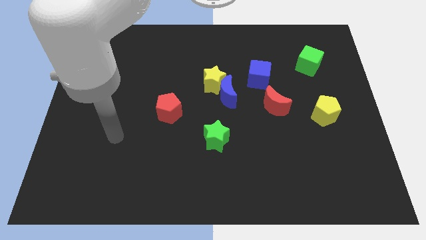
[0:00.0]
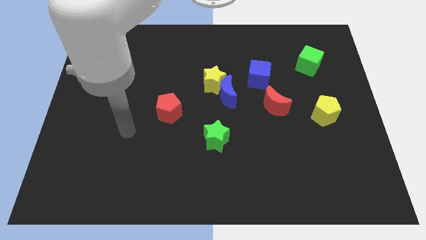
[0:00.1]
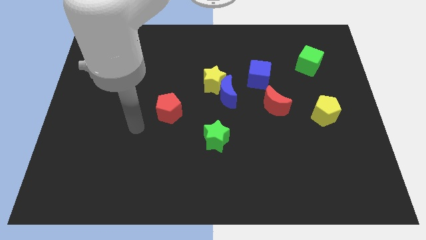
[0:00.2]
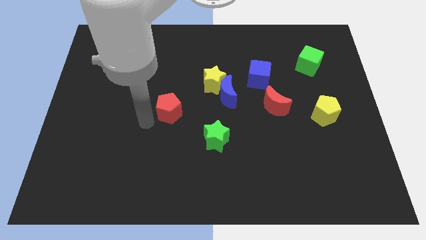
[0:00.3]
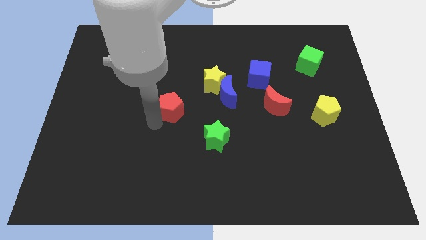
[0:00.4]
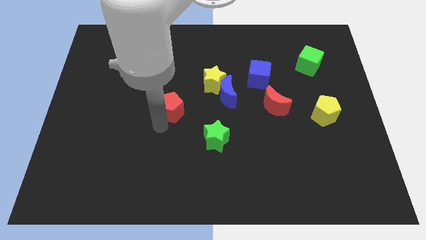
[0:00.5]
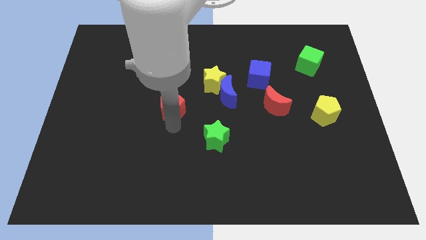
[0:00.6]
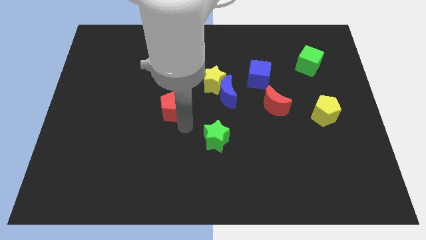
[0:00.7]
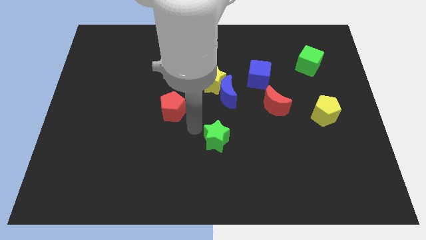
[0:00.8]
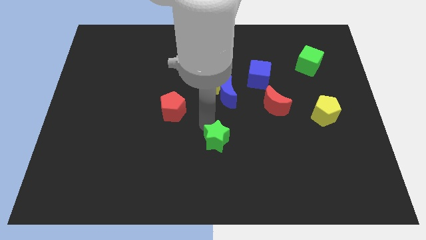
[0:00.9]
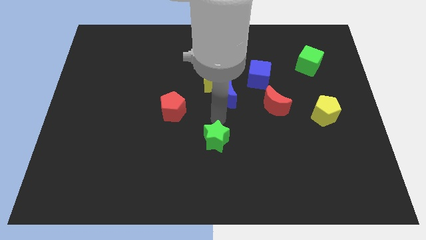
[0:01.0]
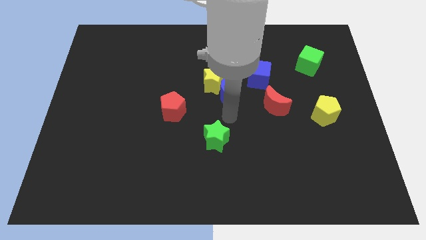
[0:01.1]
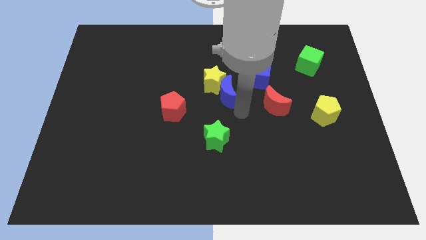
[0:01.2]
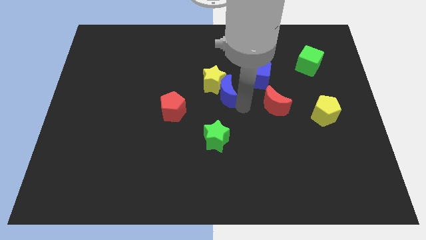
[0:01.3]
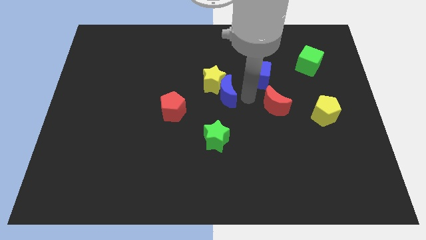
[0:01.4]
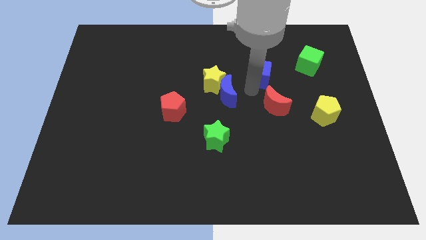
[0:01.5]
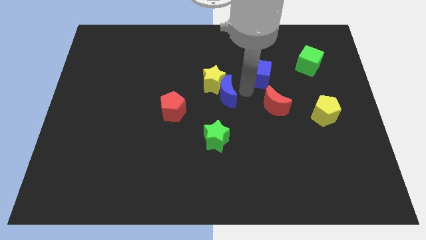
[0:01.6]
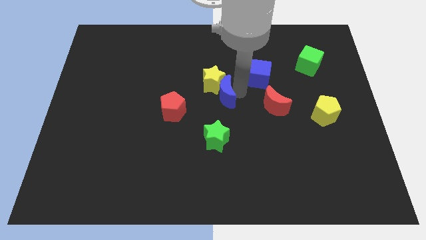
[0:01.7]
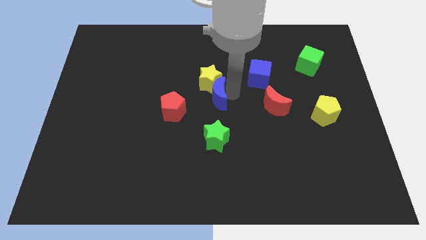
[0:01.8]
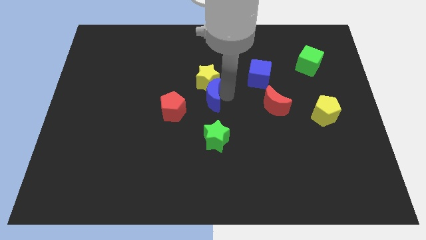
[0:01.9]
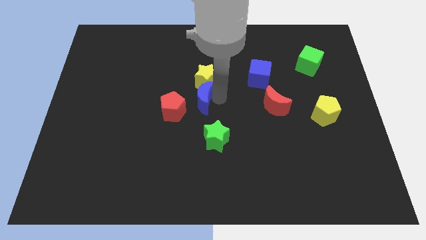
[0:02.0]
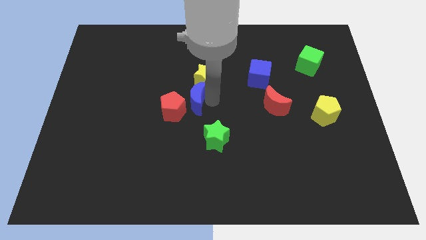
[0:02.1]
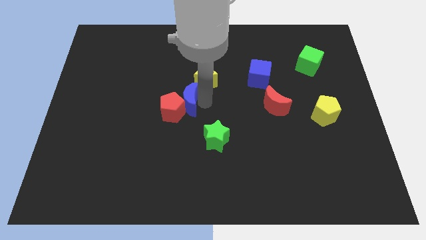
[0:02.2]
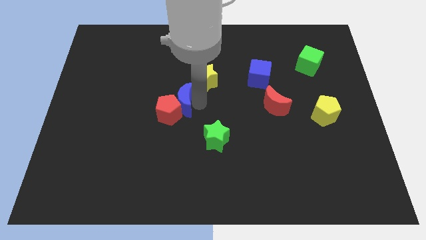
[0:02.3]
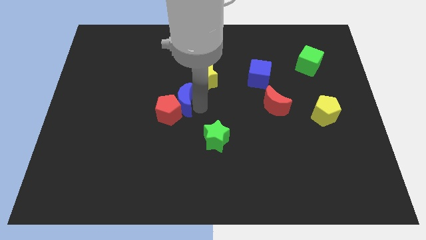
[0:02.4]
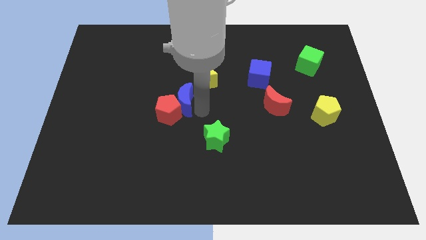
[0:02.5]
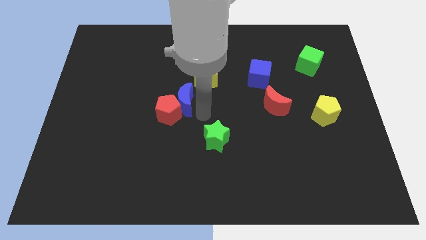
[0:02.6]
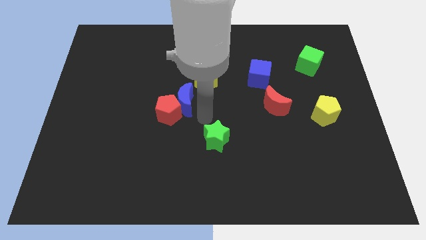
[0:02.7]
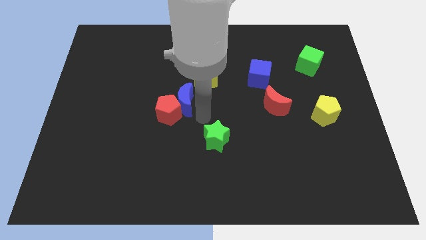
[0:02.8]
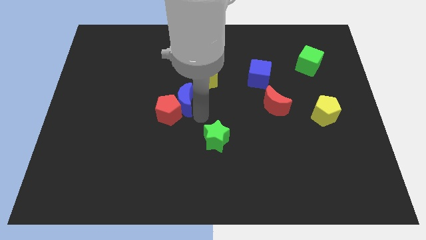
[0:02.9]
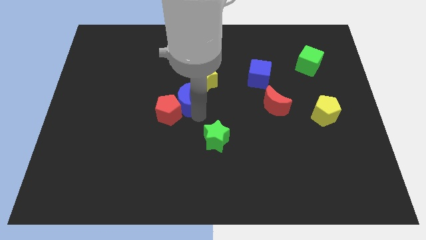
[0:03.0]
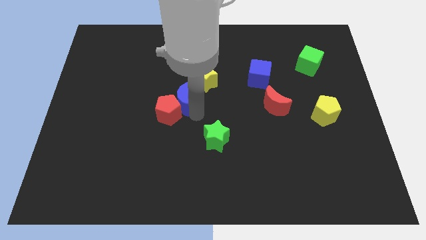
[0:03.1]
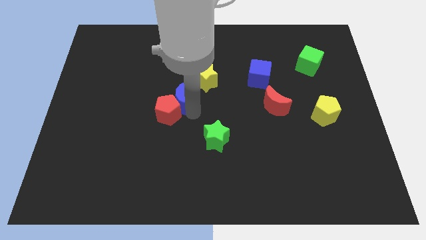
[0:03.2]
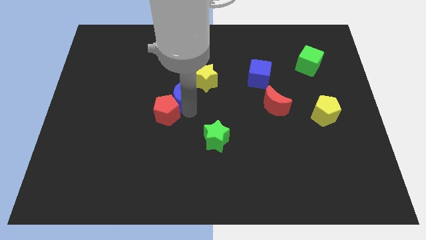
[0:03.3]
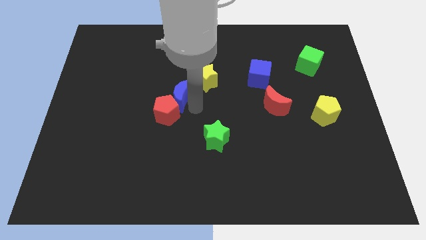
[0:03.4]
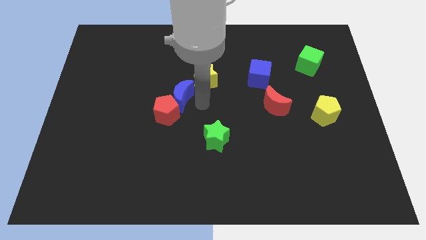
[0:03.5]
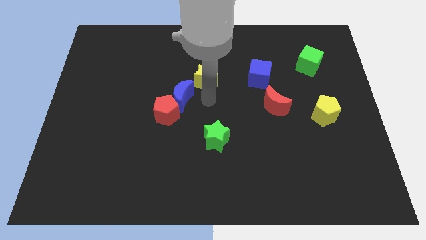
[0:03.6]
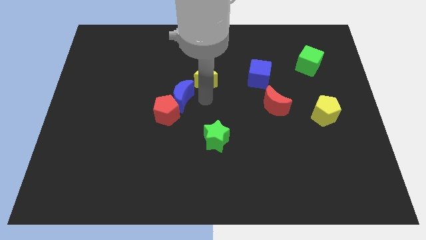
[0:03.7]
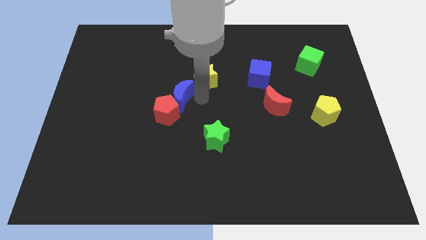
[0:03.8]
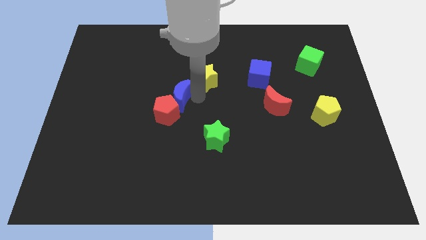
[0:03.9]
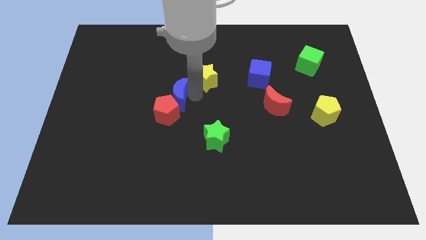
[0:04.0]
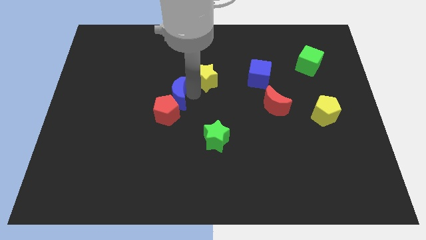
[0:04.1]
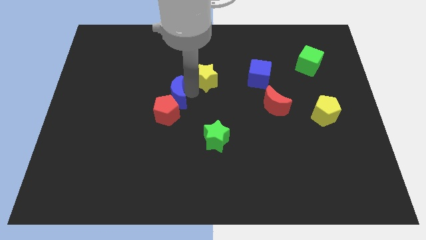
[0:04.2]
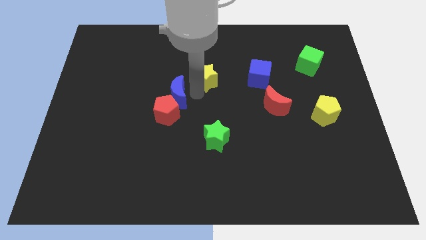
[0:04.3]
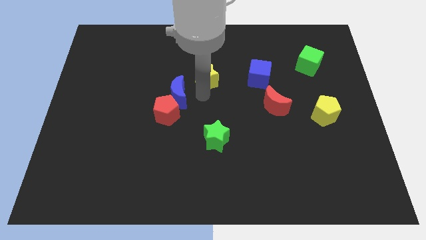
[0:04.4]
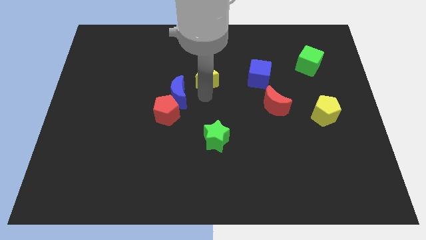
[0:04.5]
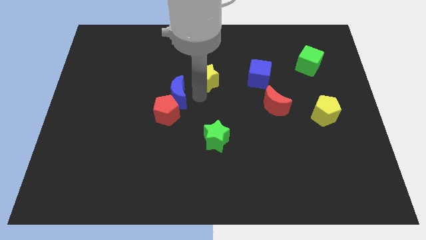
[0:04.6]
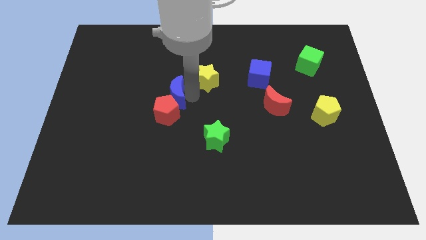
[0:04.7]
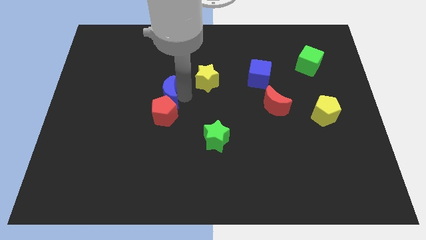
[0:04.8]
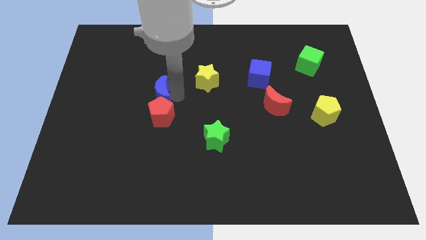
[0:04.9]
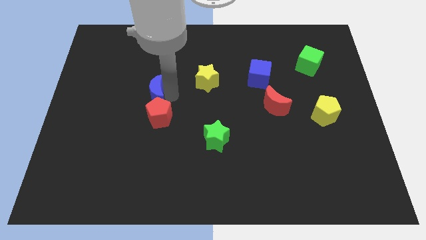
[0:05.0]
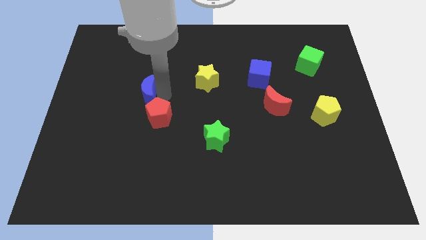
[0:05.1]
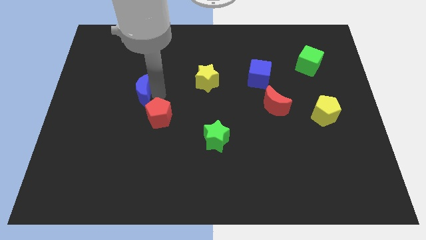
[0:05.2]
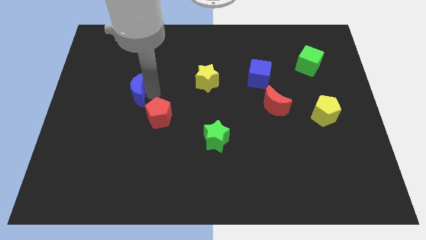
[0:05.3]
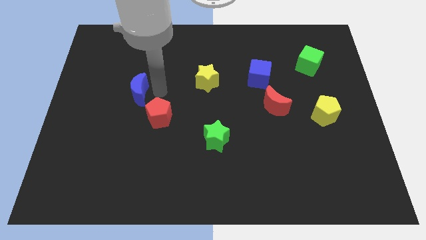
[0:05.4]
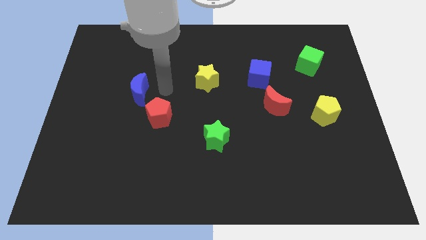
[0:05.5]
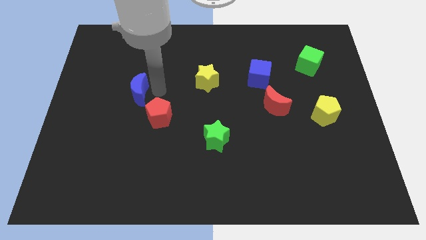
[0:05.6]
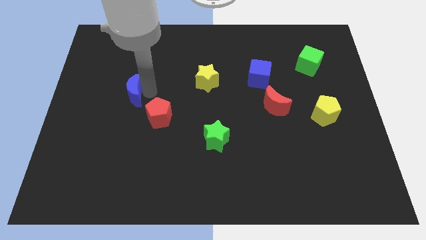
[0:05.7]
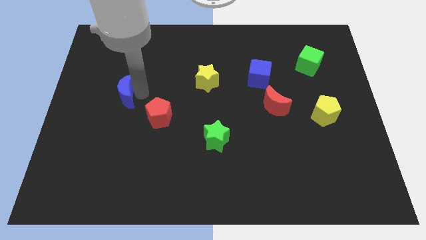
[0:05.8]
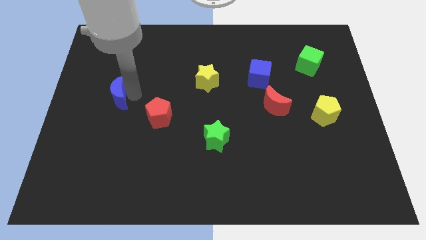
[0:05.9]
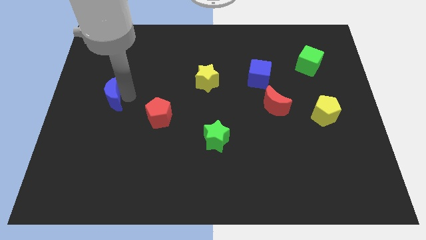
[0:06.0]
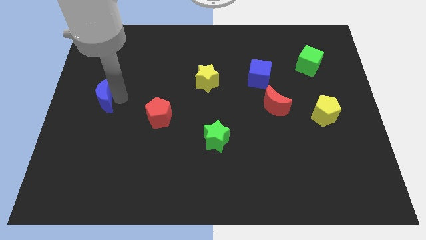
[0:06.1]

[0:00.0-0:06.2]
slide the blue moon to the left side of the board

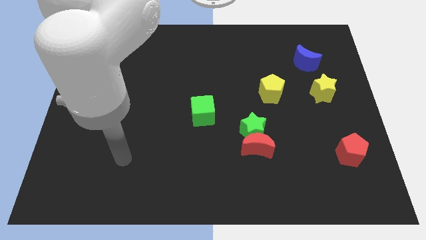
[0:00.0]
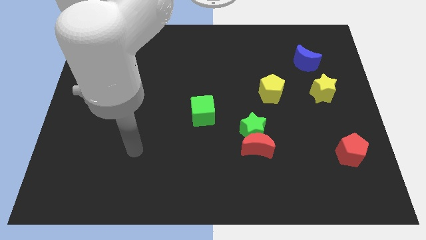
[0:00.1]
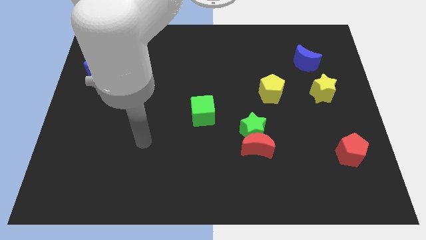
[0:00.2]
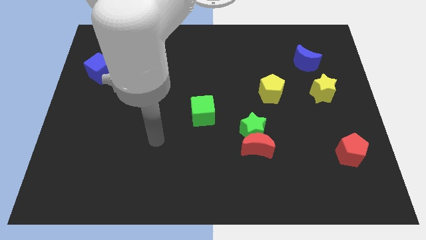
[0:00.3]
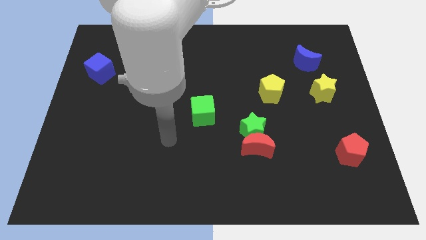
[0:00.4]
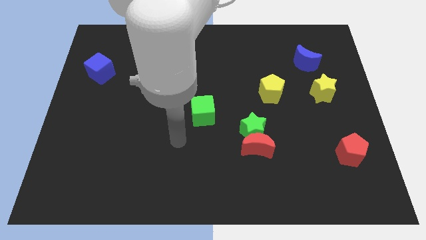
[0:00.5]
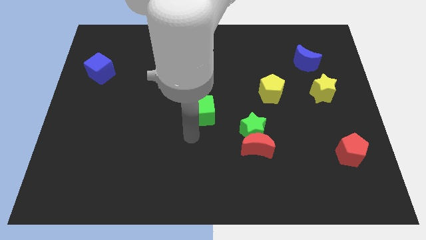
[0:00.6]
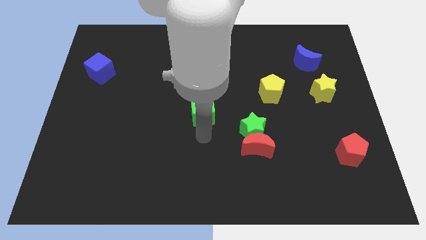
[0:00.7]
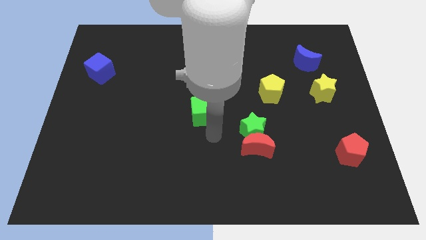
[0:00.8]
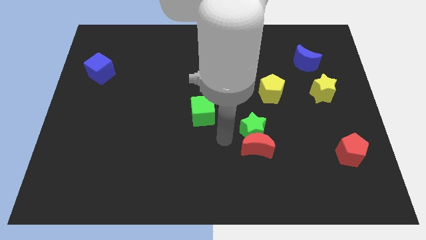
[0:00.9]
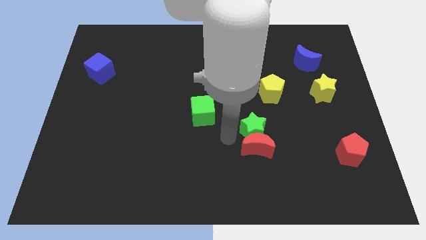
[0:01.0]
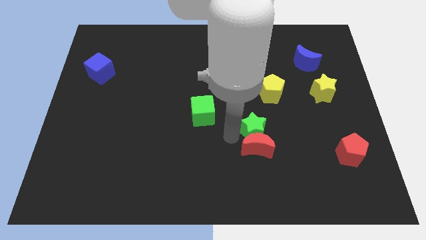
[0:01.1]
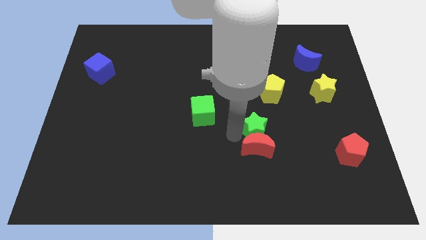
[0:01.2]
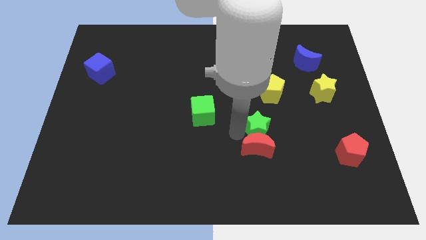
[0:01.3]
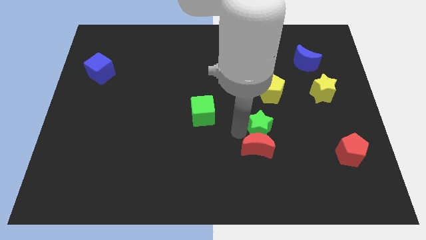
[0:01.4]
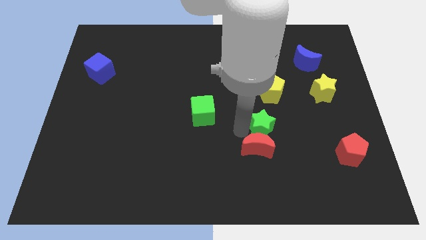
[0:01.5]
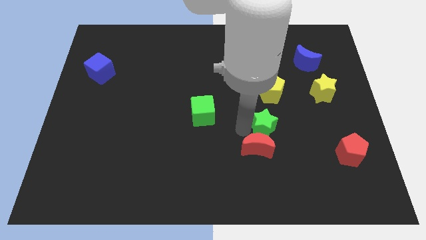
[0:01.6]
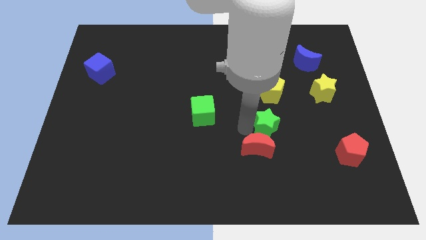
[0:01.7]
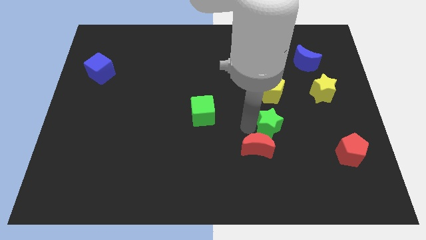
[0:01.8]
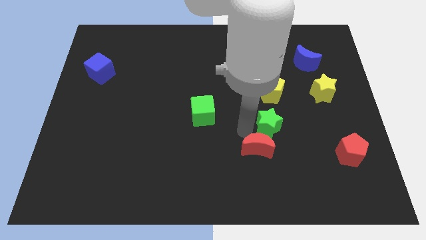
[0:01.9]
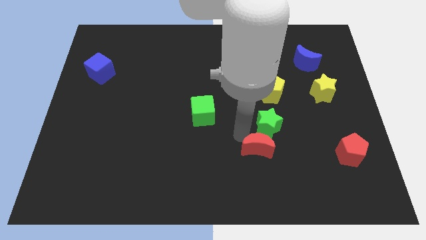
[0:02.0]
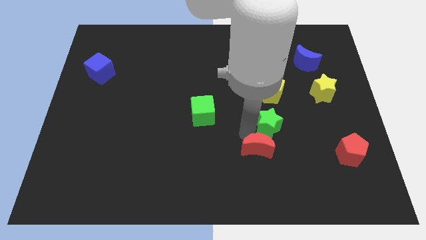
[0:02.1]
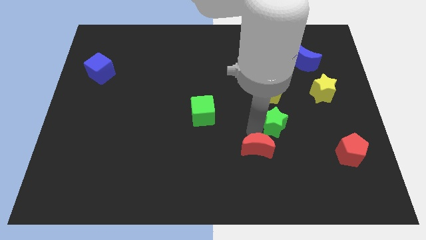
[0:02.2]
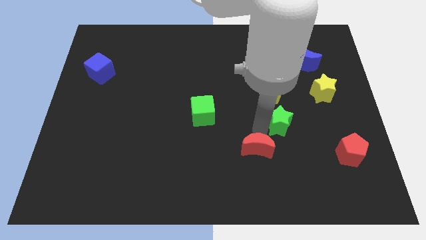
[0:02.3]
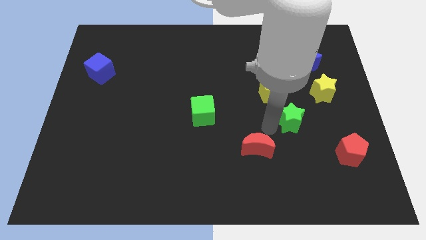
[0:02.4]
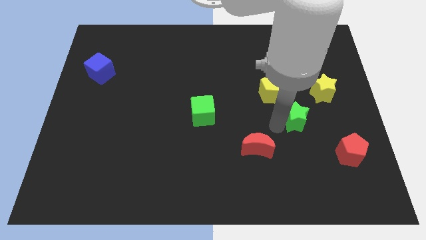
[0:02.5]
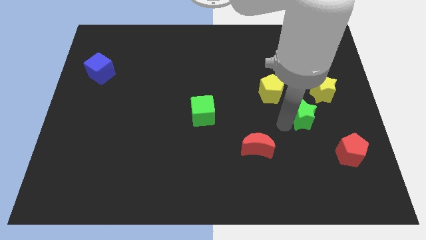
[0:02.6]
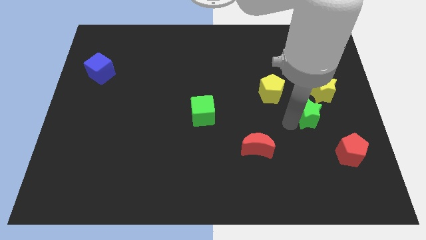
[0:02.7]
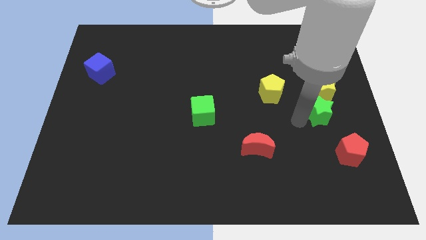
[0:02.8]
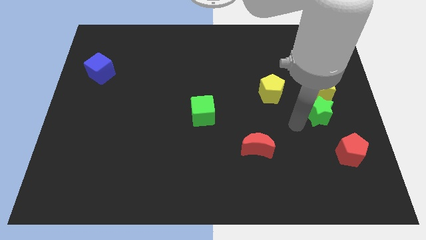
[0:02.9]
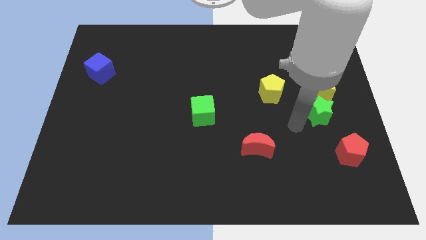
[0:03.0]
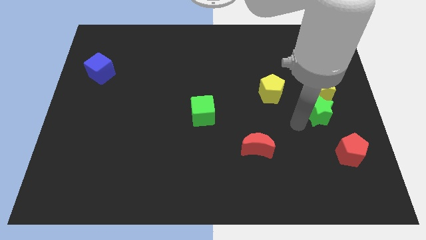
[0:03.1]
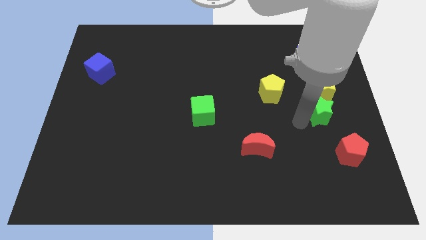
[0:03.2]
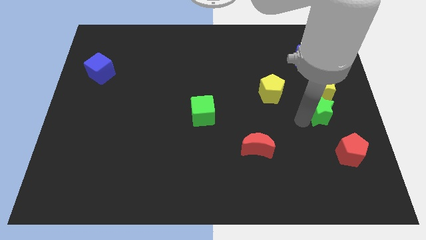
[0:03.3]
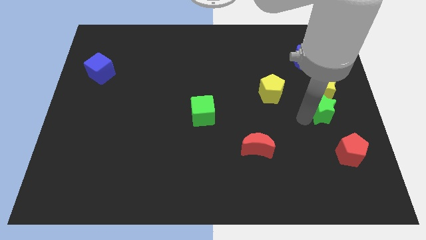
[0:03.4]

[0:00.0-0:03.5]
slide the green star to the center right
